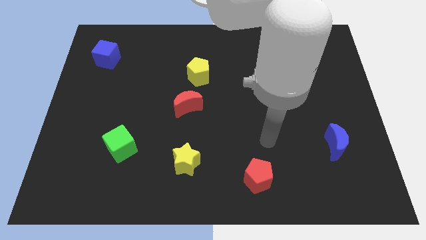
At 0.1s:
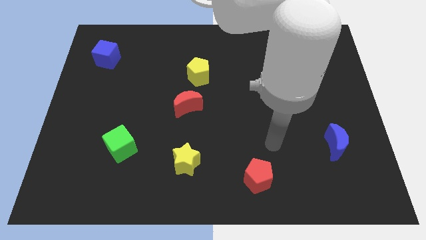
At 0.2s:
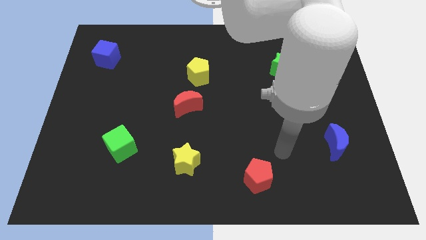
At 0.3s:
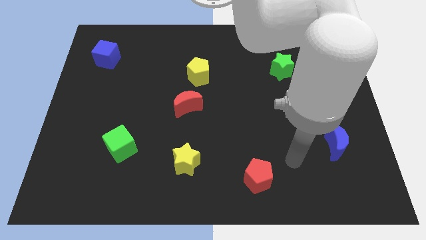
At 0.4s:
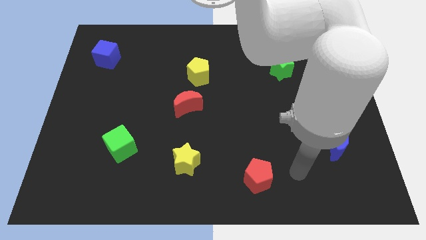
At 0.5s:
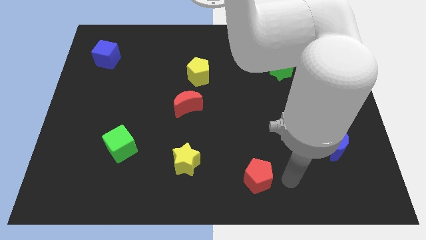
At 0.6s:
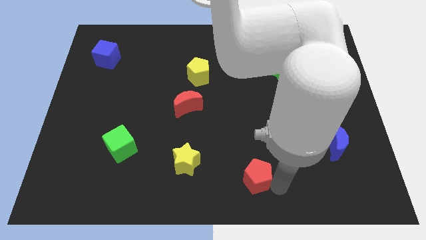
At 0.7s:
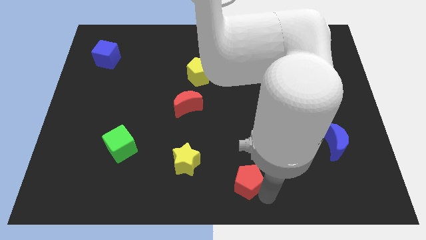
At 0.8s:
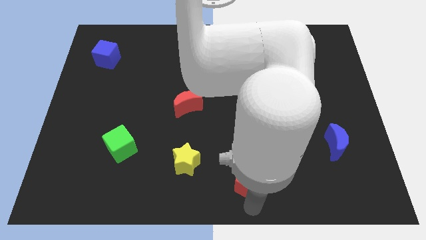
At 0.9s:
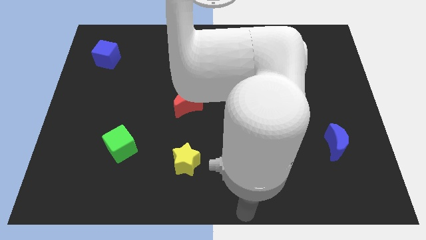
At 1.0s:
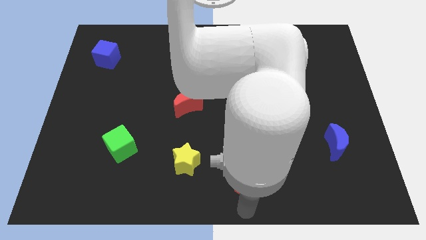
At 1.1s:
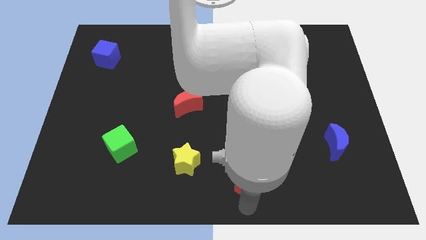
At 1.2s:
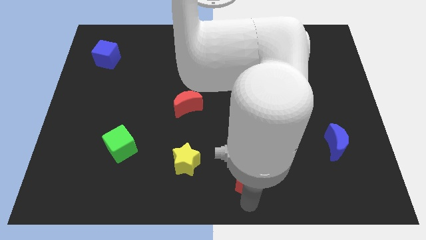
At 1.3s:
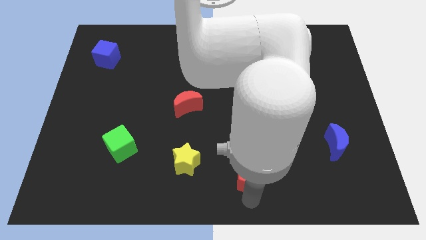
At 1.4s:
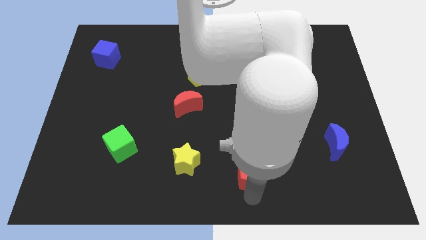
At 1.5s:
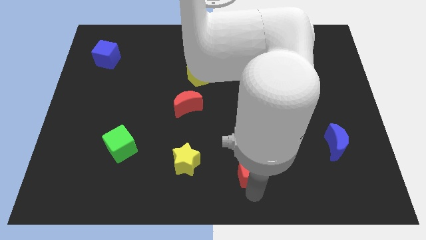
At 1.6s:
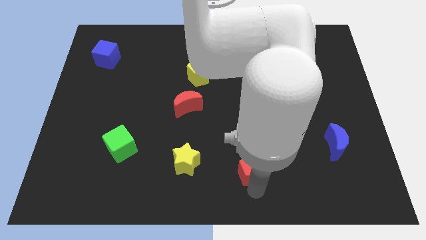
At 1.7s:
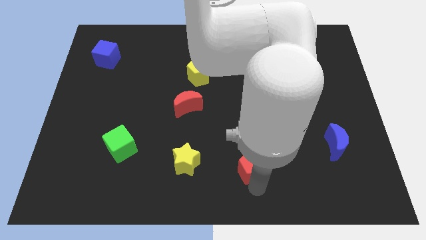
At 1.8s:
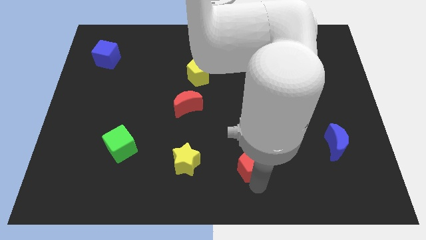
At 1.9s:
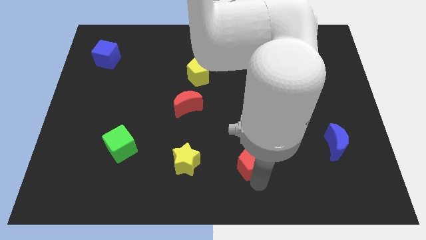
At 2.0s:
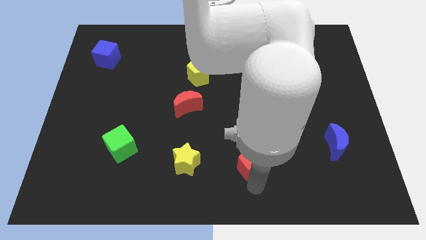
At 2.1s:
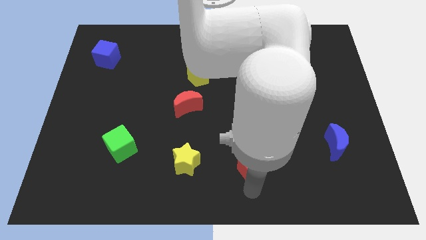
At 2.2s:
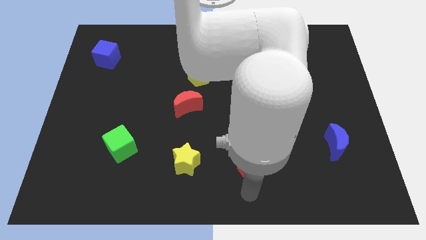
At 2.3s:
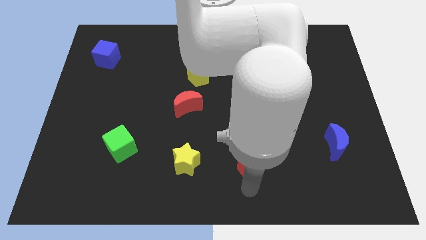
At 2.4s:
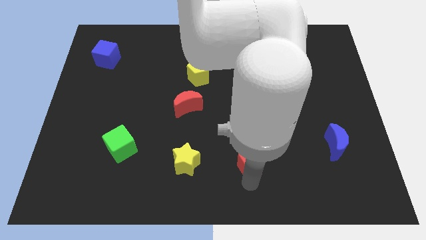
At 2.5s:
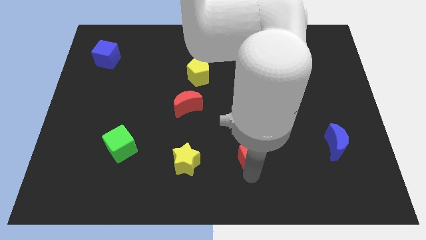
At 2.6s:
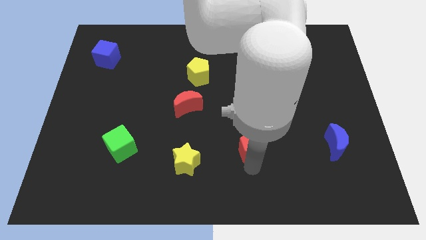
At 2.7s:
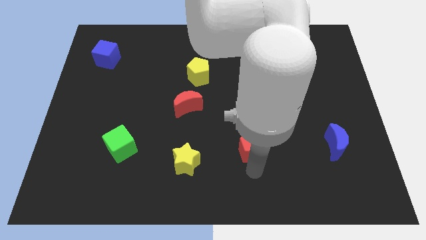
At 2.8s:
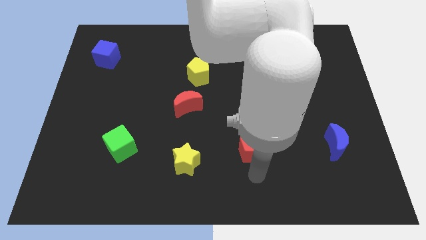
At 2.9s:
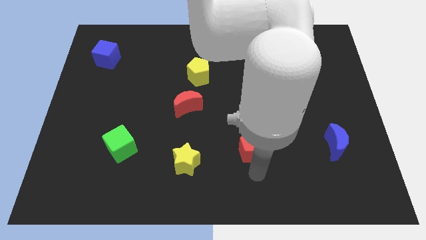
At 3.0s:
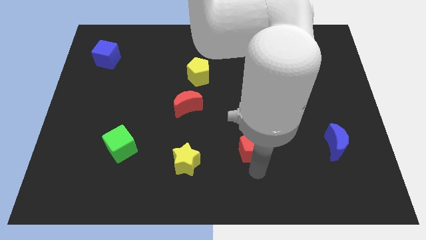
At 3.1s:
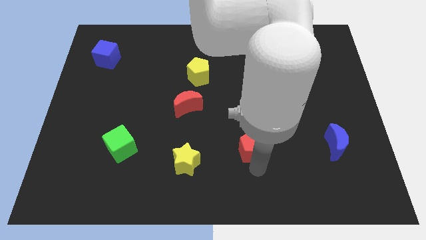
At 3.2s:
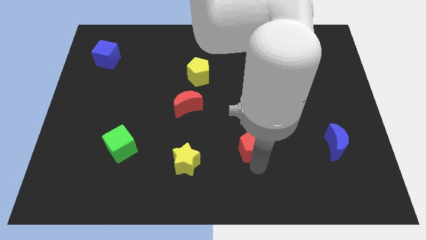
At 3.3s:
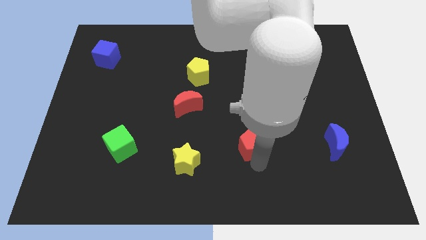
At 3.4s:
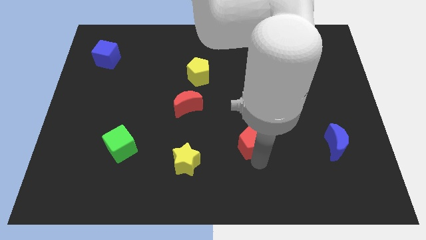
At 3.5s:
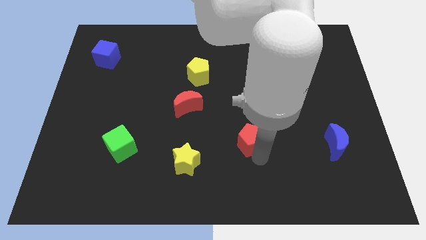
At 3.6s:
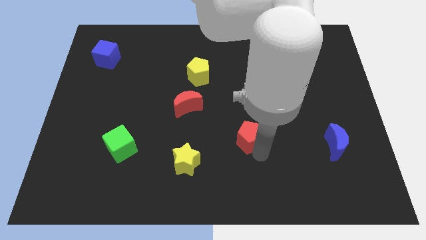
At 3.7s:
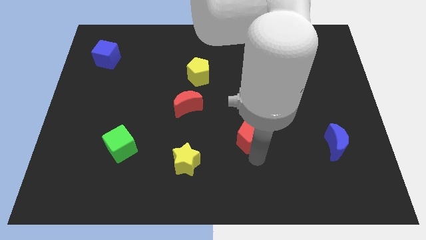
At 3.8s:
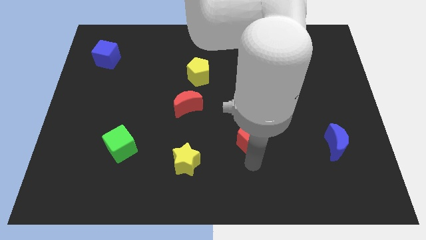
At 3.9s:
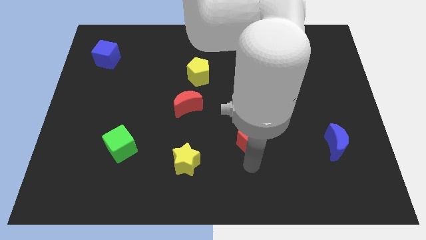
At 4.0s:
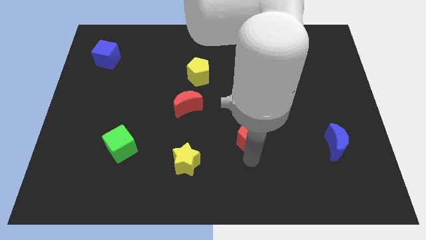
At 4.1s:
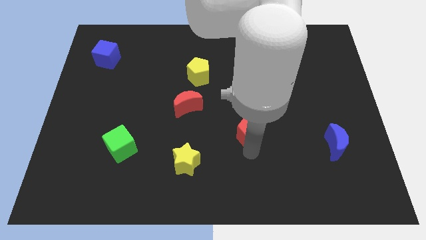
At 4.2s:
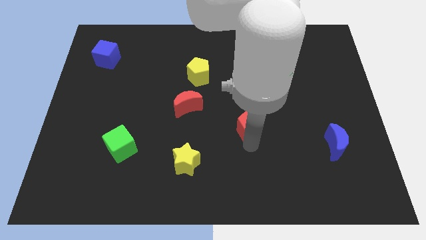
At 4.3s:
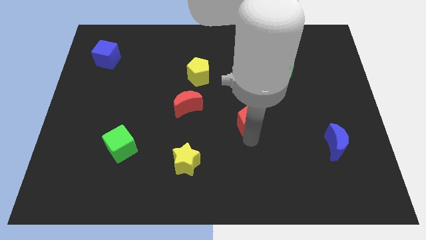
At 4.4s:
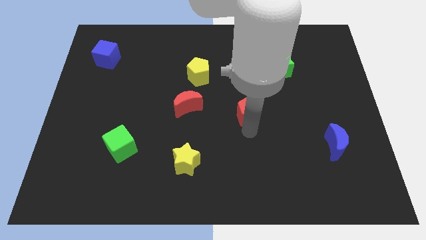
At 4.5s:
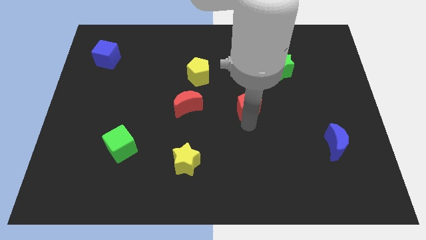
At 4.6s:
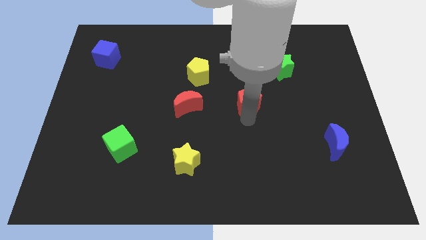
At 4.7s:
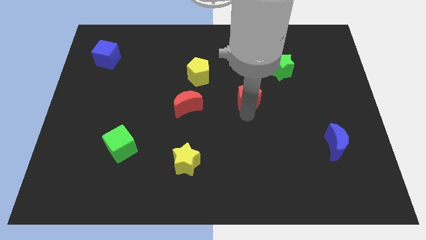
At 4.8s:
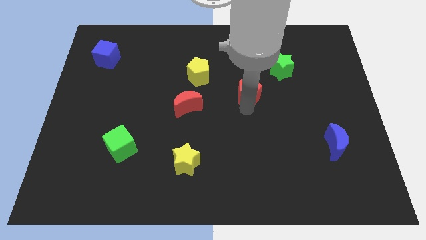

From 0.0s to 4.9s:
put the red pentagon to the bottom left side of the green star

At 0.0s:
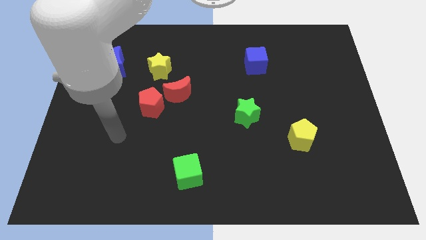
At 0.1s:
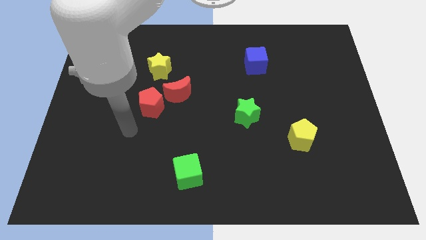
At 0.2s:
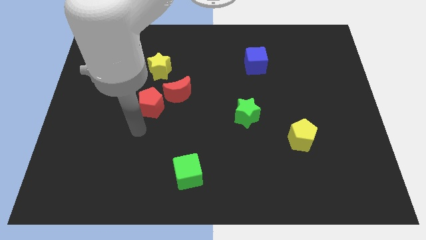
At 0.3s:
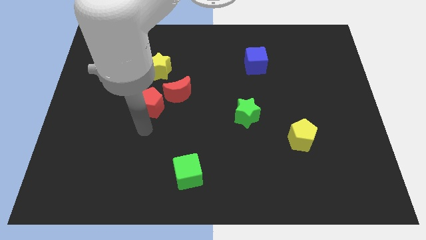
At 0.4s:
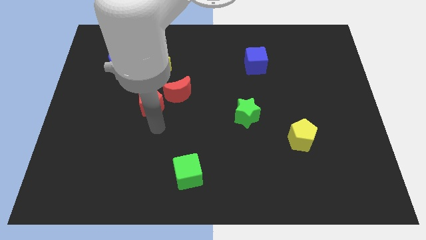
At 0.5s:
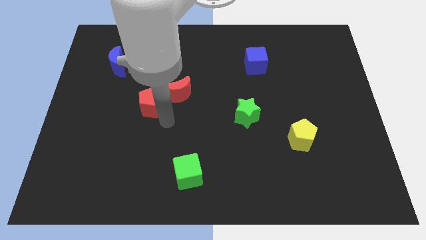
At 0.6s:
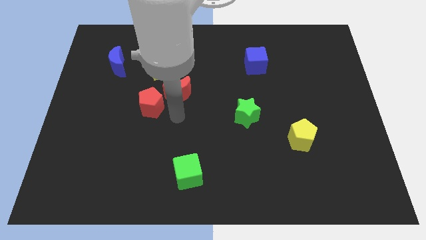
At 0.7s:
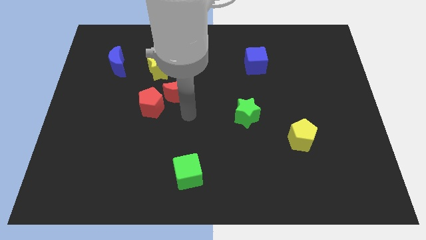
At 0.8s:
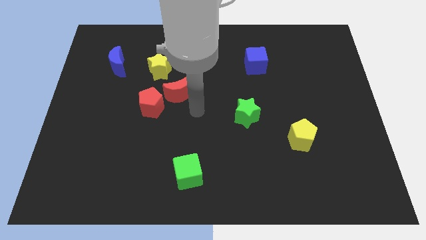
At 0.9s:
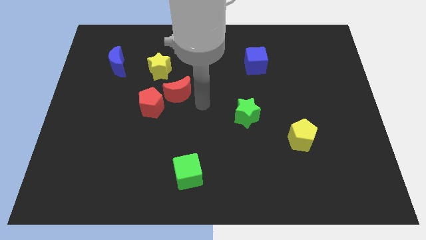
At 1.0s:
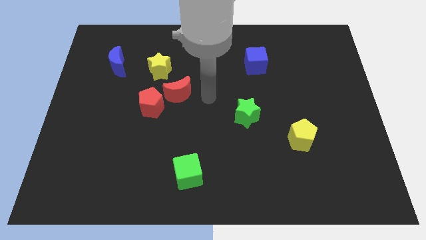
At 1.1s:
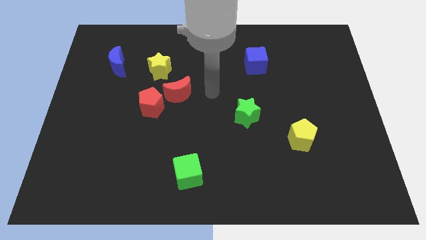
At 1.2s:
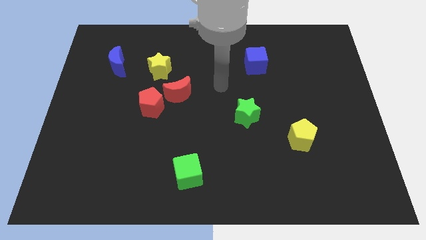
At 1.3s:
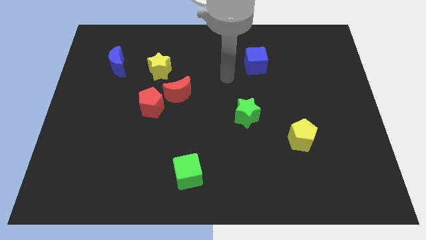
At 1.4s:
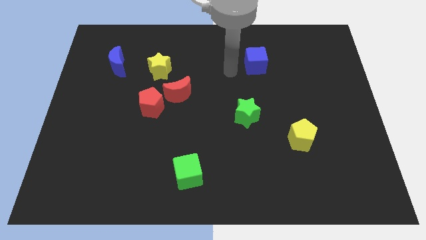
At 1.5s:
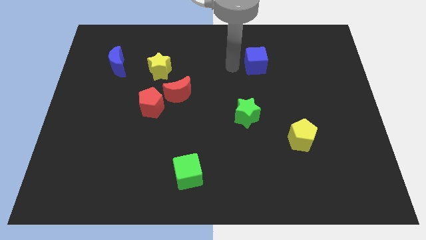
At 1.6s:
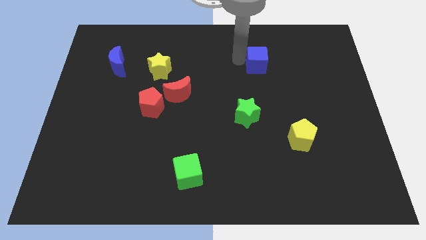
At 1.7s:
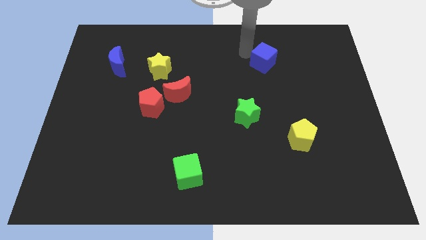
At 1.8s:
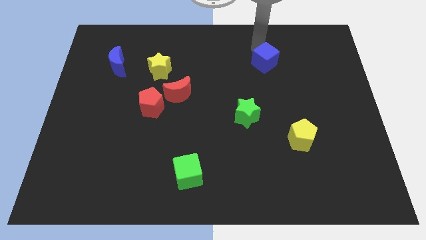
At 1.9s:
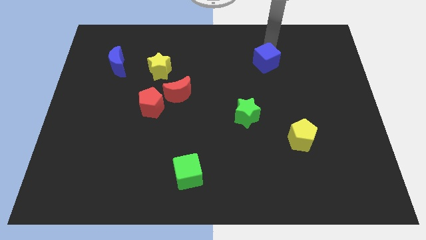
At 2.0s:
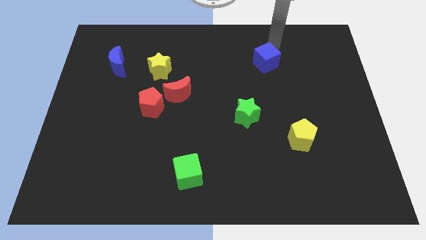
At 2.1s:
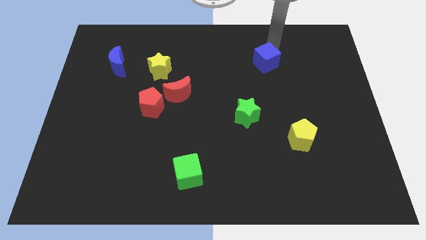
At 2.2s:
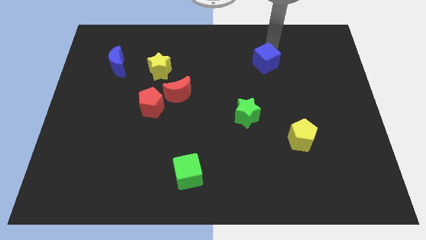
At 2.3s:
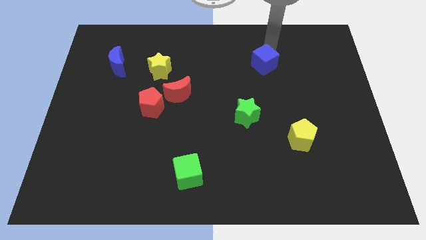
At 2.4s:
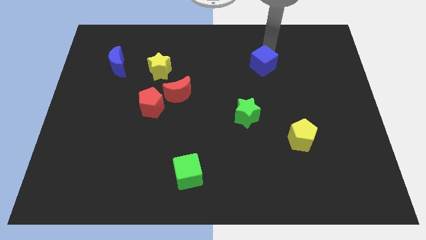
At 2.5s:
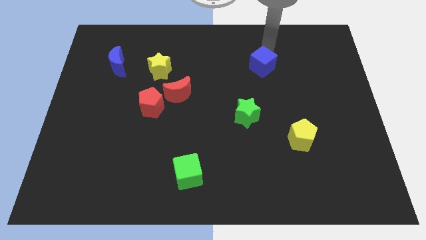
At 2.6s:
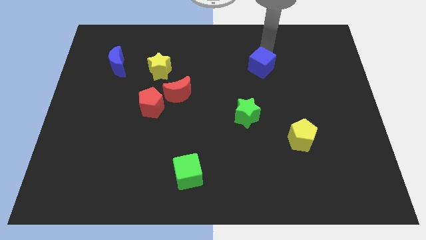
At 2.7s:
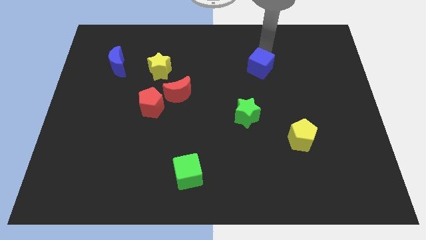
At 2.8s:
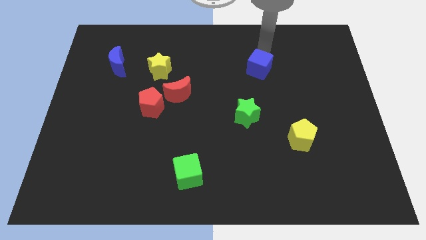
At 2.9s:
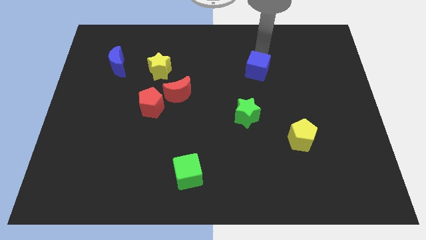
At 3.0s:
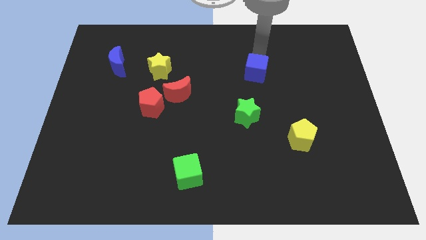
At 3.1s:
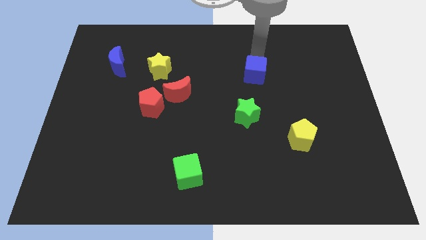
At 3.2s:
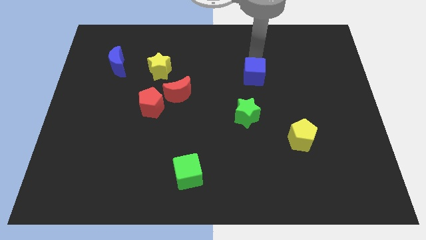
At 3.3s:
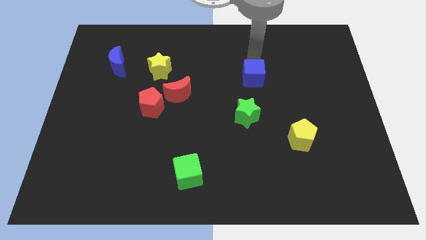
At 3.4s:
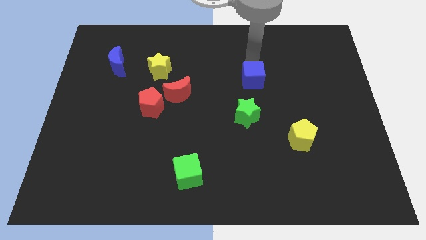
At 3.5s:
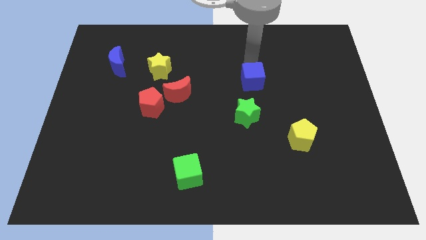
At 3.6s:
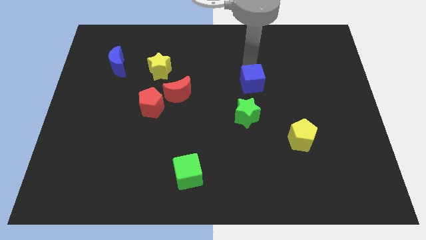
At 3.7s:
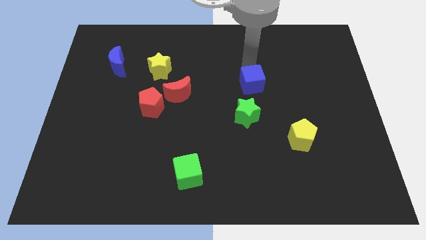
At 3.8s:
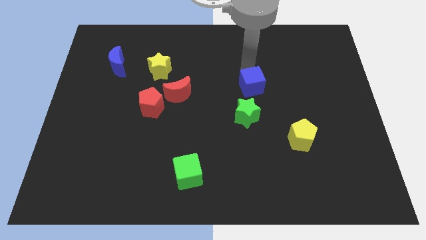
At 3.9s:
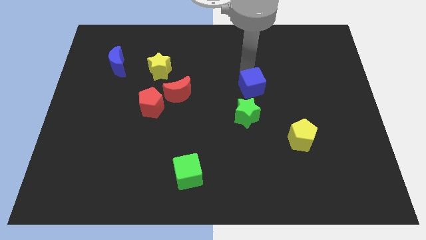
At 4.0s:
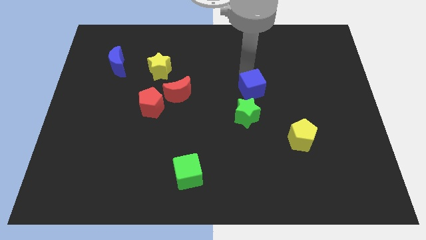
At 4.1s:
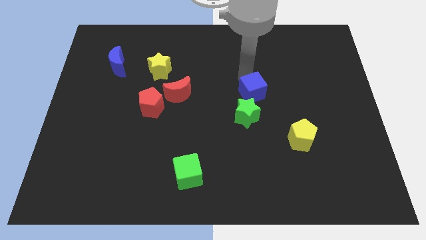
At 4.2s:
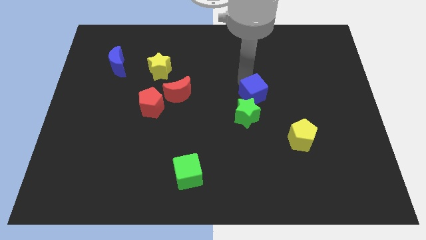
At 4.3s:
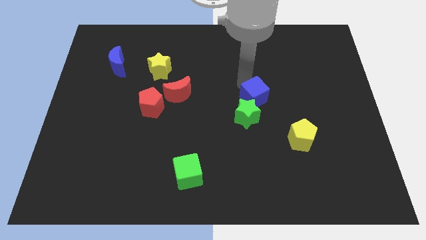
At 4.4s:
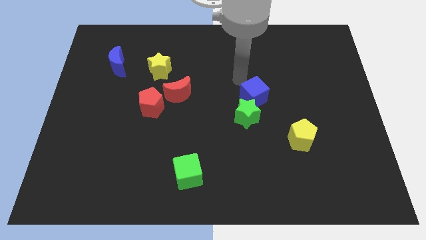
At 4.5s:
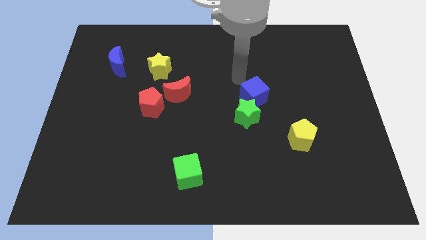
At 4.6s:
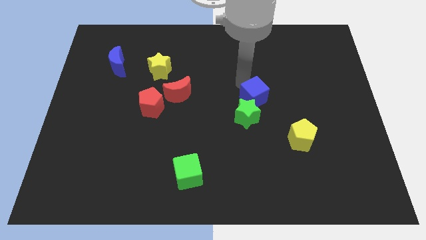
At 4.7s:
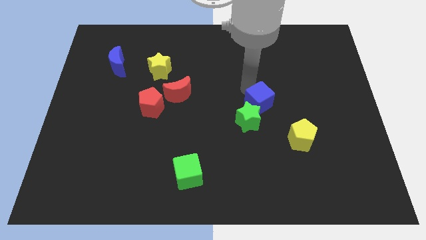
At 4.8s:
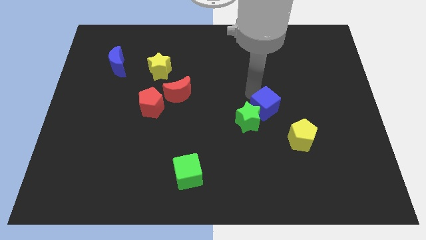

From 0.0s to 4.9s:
put the blue cube to the top left side of the yellow pentagon
